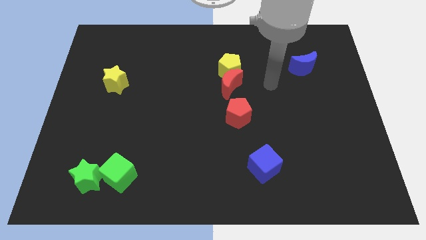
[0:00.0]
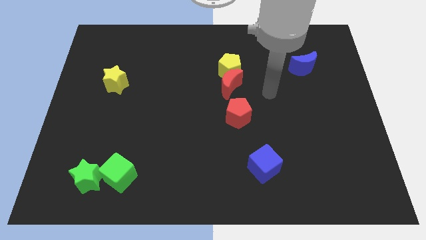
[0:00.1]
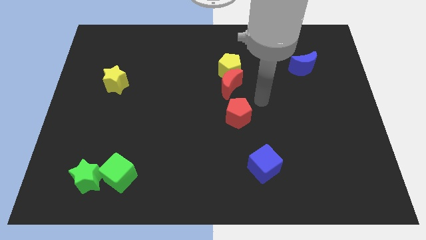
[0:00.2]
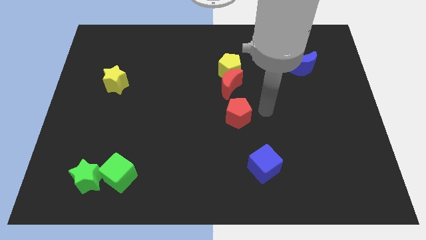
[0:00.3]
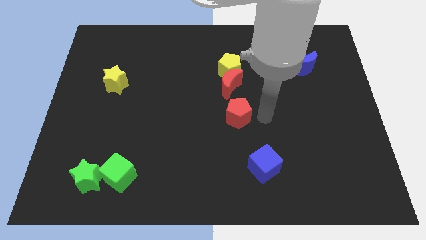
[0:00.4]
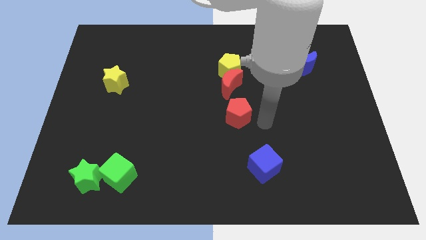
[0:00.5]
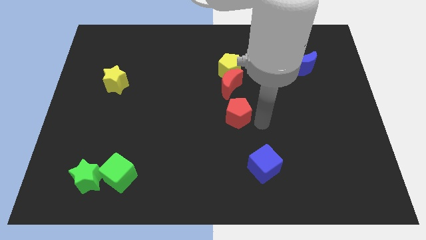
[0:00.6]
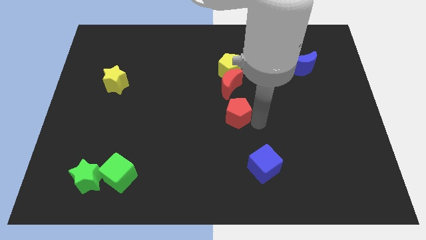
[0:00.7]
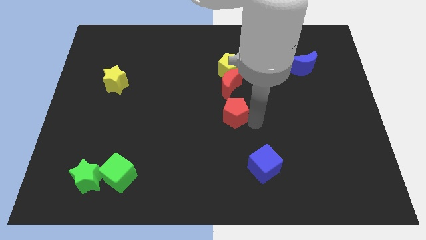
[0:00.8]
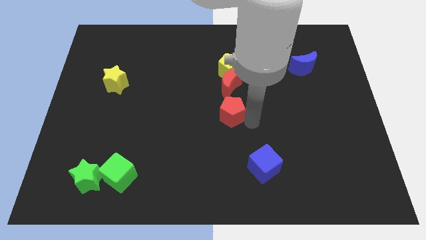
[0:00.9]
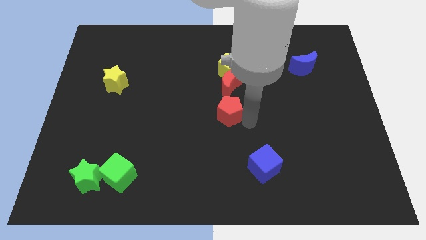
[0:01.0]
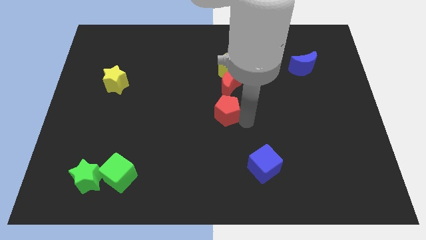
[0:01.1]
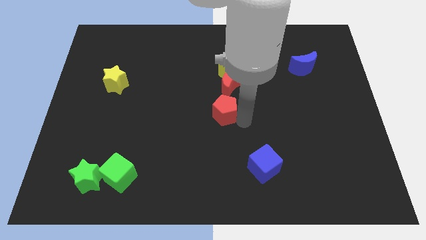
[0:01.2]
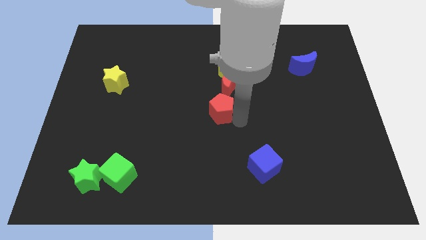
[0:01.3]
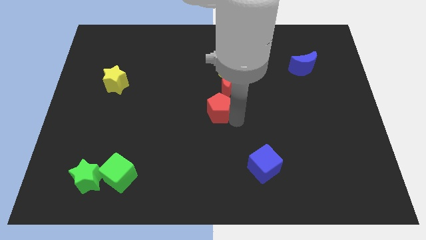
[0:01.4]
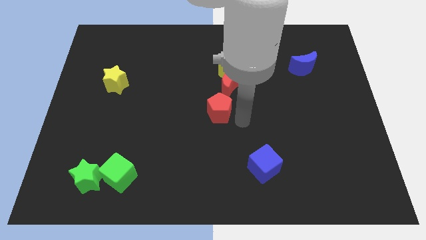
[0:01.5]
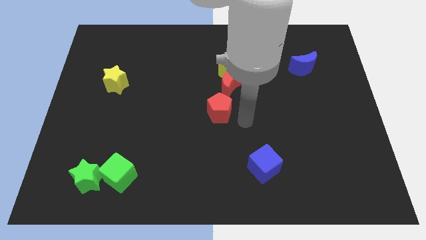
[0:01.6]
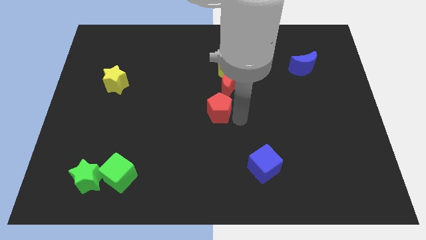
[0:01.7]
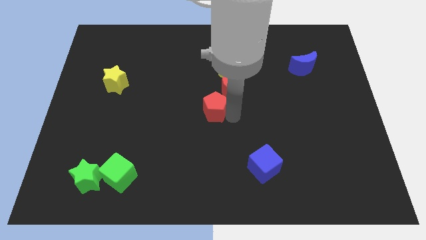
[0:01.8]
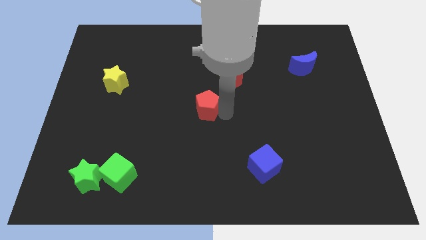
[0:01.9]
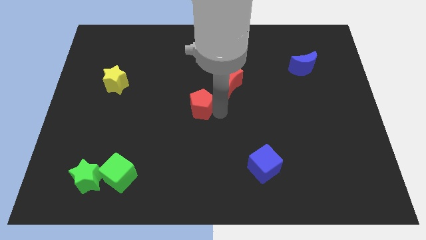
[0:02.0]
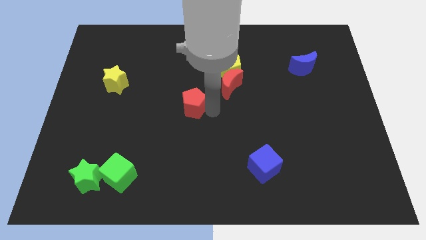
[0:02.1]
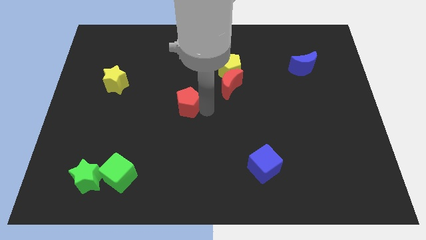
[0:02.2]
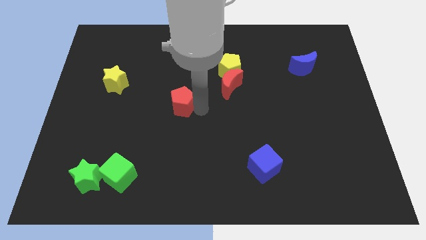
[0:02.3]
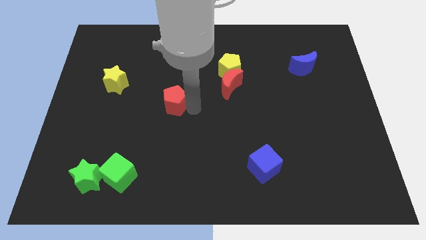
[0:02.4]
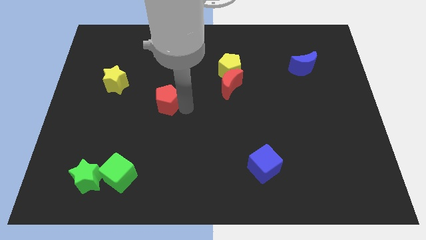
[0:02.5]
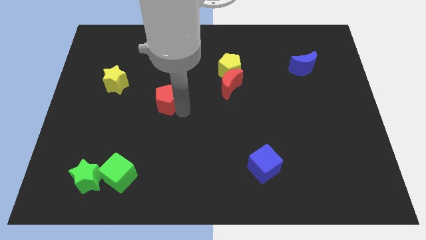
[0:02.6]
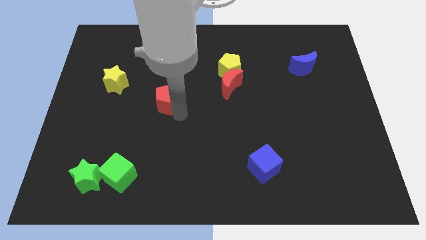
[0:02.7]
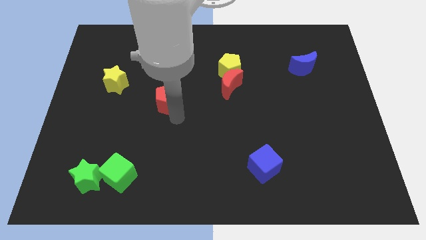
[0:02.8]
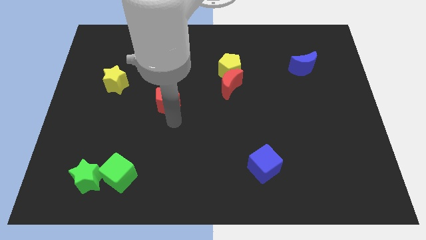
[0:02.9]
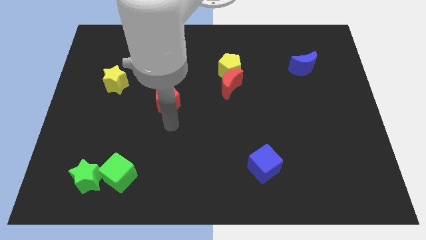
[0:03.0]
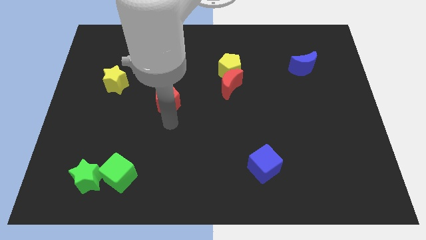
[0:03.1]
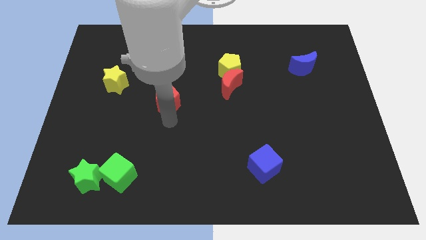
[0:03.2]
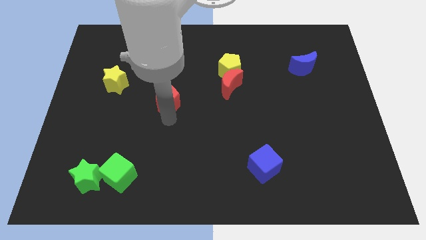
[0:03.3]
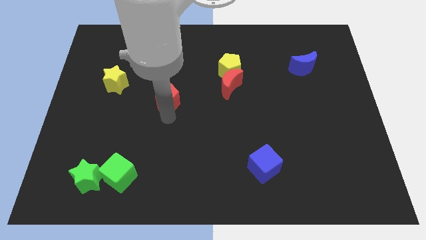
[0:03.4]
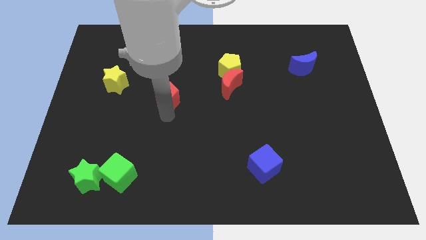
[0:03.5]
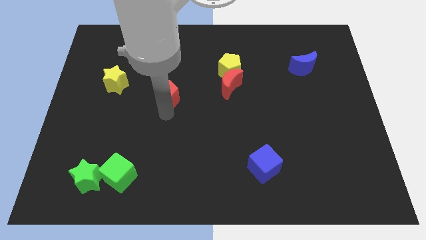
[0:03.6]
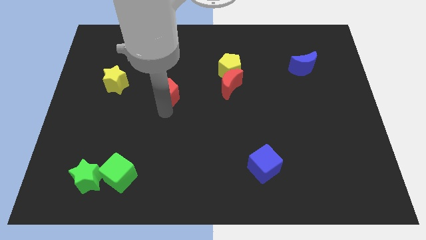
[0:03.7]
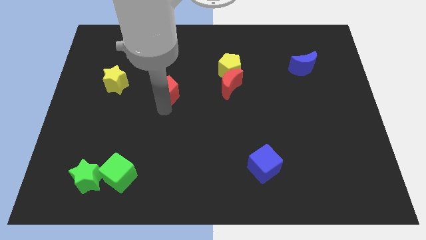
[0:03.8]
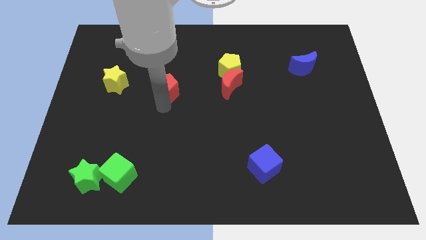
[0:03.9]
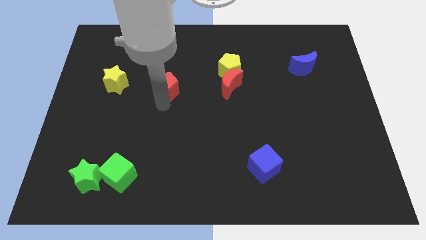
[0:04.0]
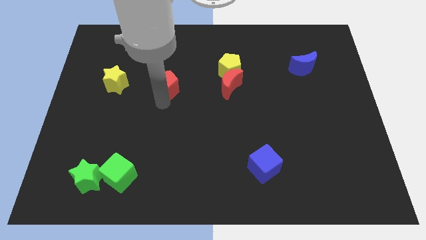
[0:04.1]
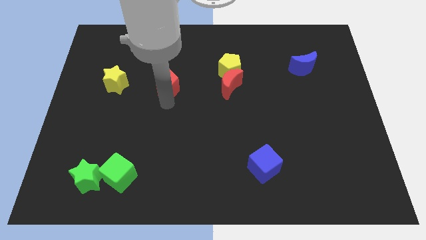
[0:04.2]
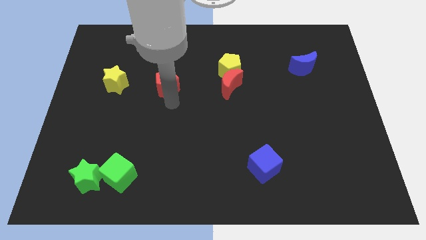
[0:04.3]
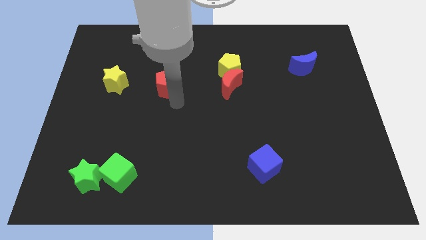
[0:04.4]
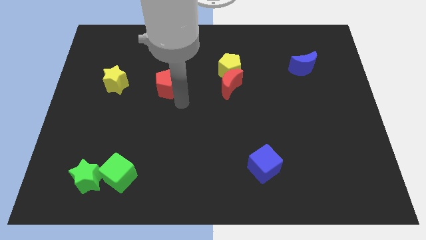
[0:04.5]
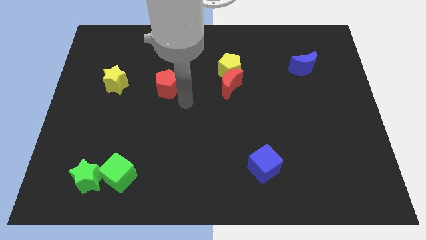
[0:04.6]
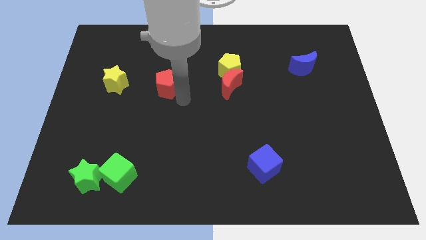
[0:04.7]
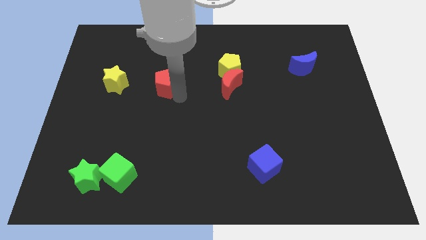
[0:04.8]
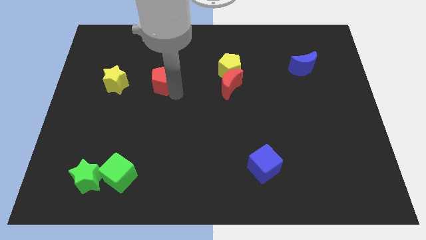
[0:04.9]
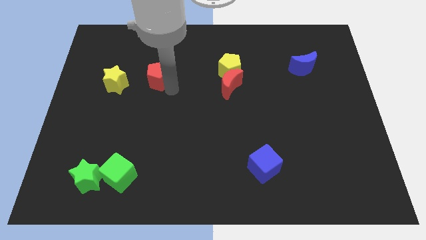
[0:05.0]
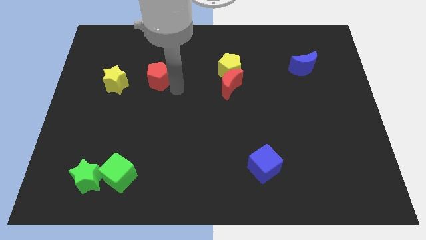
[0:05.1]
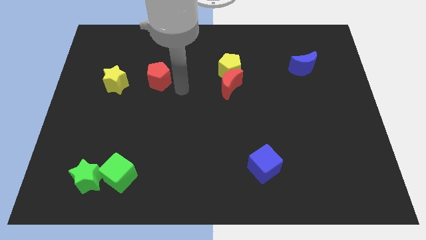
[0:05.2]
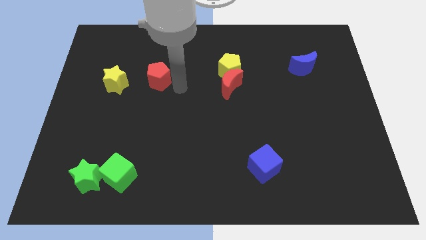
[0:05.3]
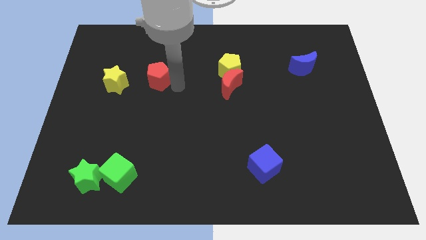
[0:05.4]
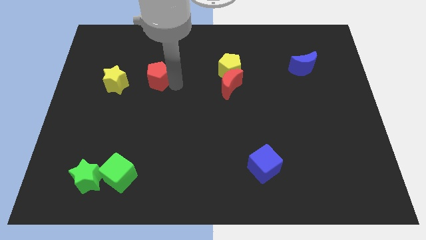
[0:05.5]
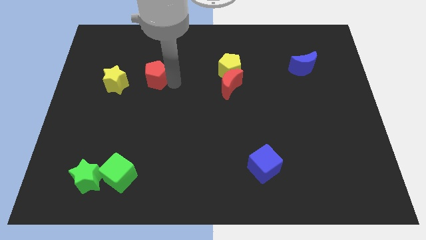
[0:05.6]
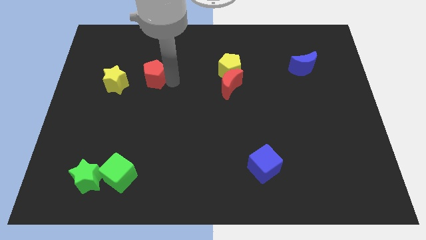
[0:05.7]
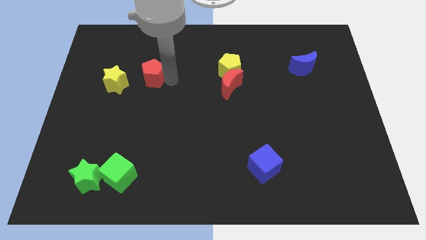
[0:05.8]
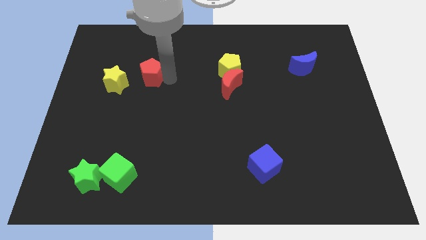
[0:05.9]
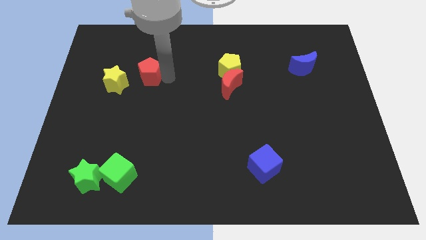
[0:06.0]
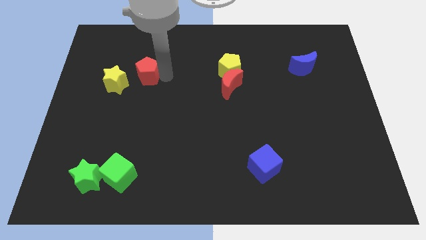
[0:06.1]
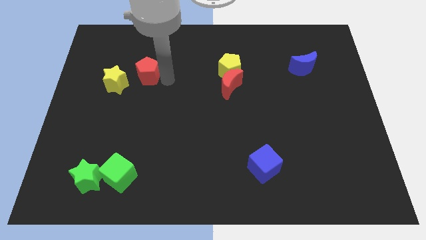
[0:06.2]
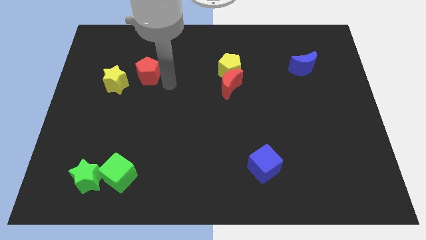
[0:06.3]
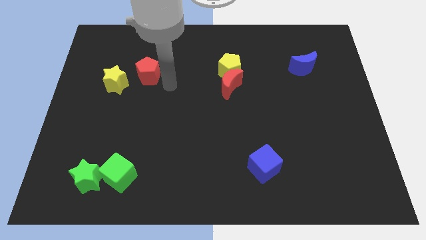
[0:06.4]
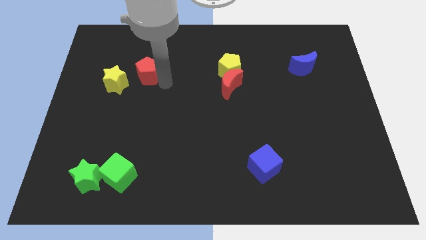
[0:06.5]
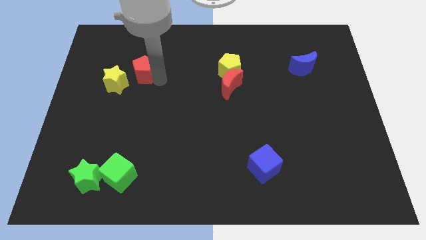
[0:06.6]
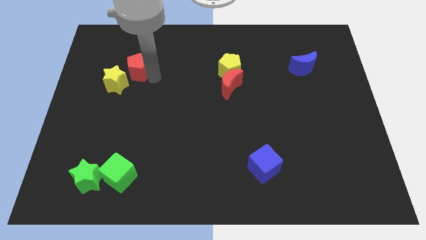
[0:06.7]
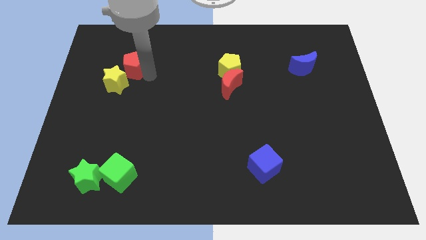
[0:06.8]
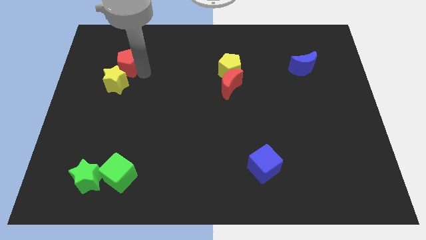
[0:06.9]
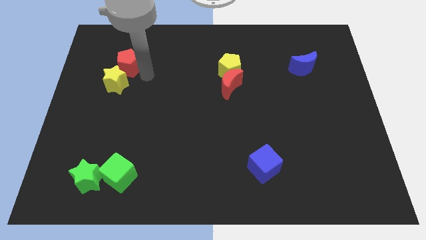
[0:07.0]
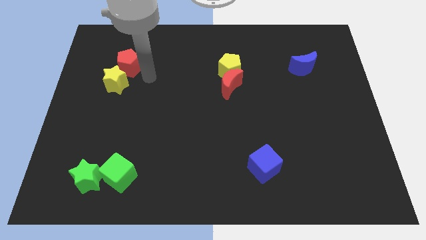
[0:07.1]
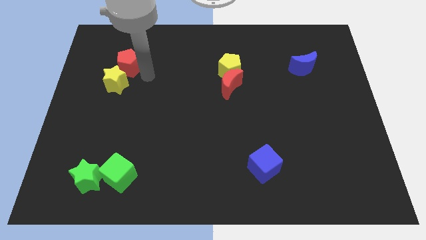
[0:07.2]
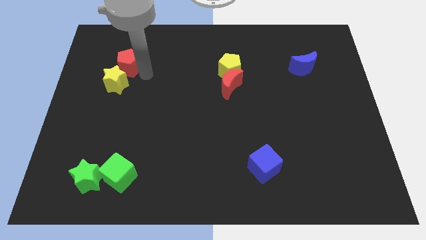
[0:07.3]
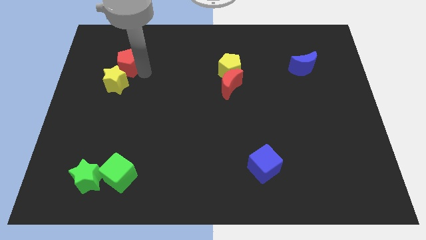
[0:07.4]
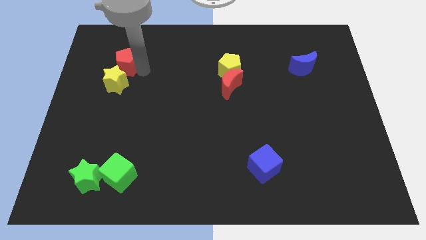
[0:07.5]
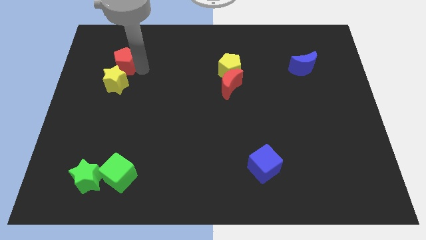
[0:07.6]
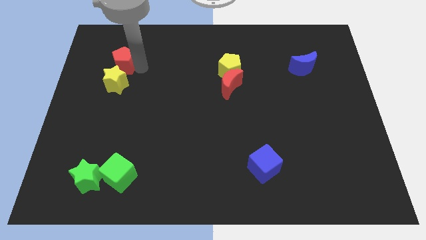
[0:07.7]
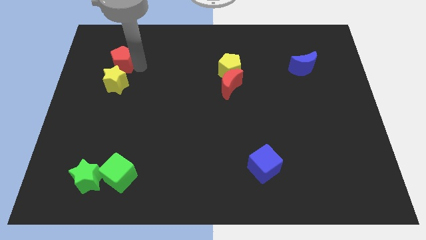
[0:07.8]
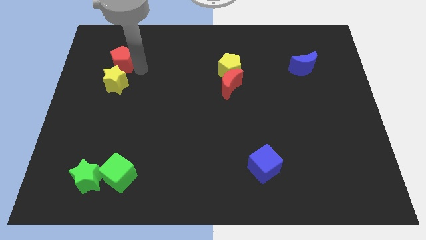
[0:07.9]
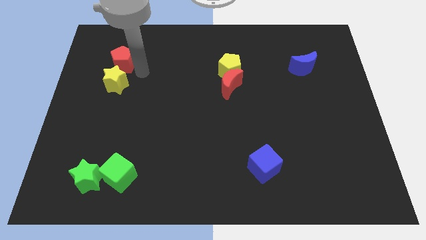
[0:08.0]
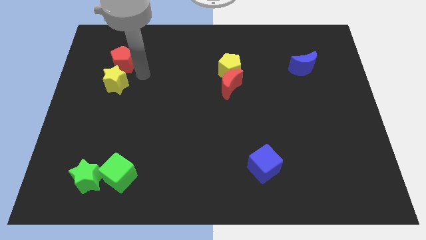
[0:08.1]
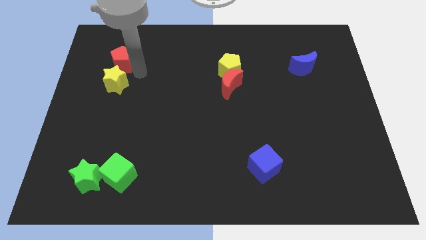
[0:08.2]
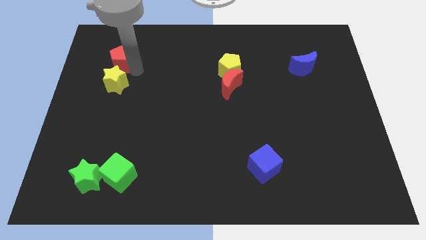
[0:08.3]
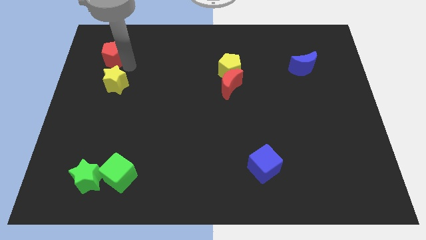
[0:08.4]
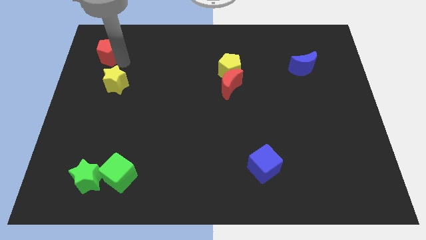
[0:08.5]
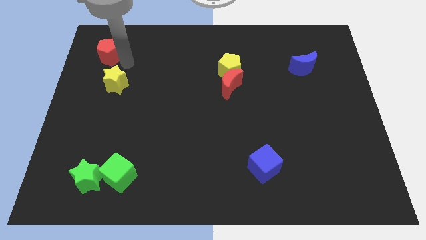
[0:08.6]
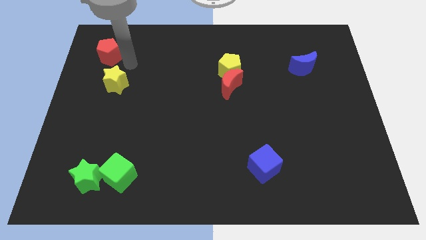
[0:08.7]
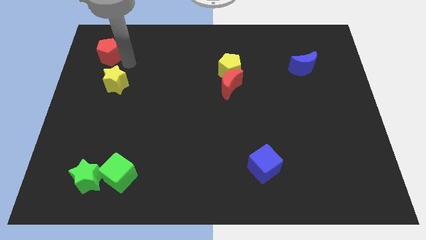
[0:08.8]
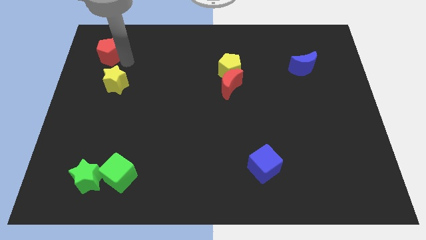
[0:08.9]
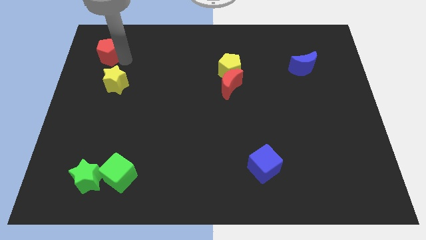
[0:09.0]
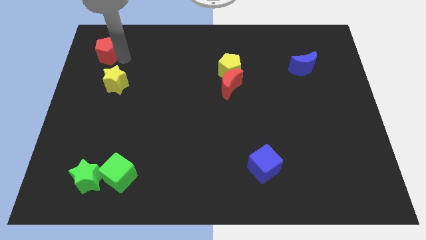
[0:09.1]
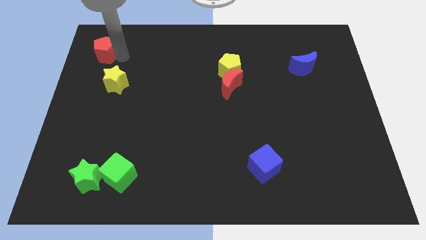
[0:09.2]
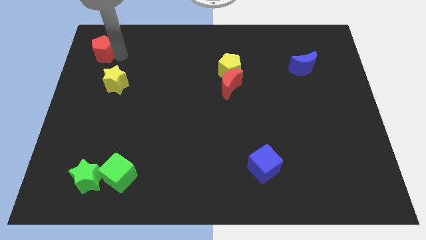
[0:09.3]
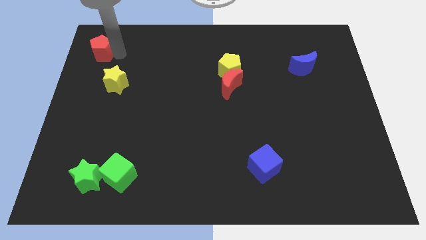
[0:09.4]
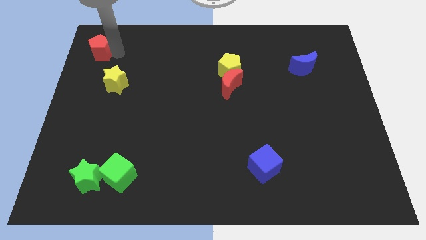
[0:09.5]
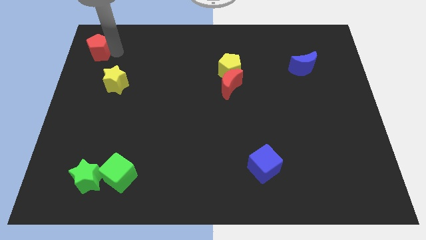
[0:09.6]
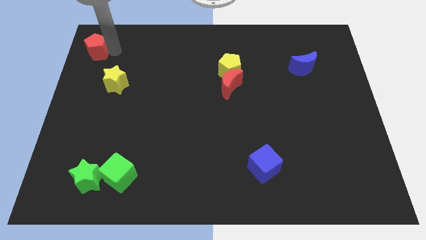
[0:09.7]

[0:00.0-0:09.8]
move the red pentagon to the top left of the board
